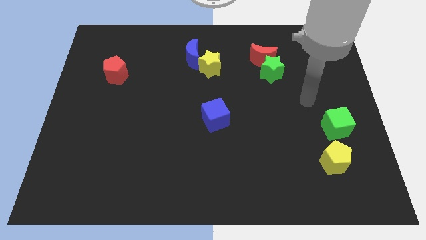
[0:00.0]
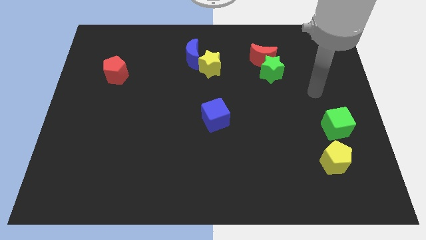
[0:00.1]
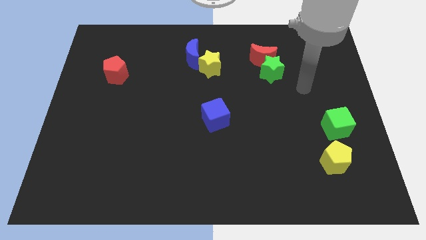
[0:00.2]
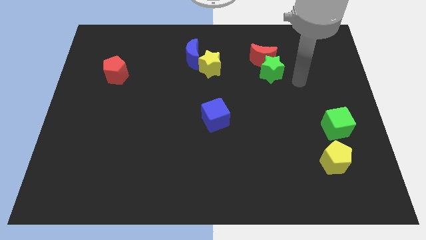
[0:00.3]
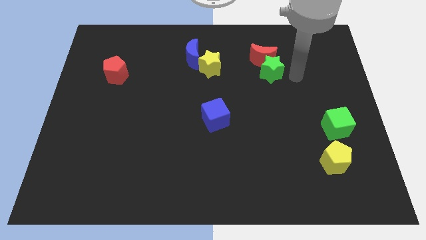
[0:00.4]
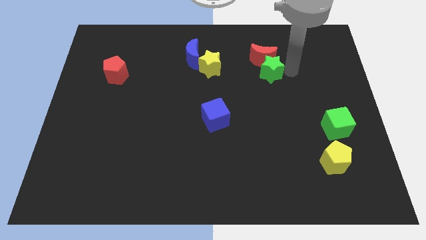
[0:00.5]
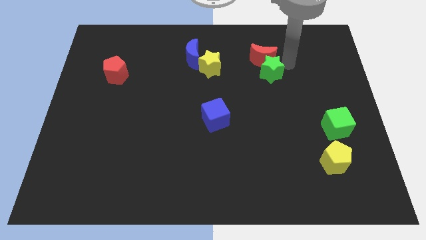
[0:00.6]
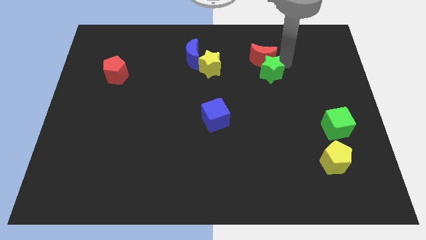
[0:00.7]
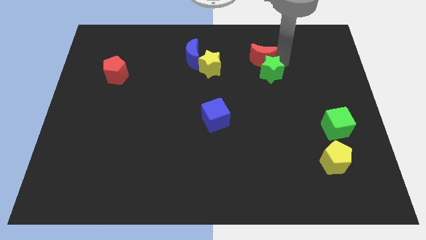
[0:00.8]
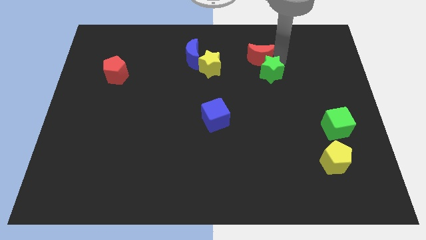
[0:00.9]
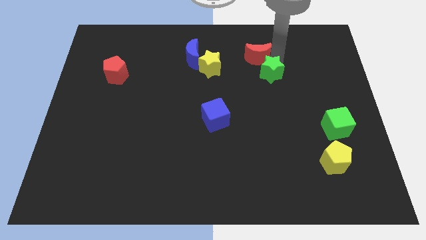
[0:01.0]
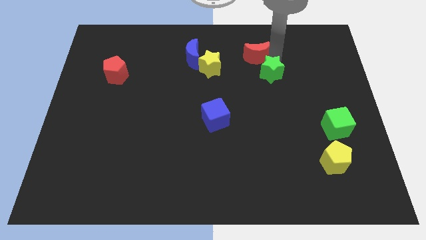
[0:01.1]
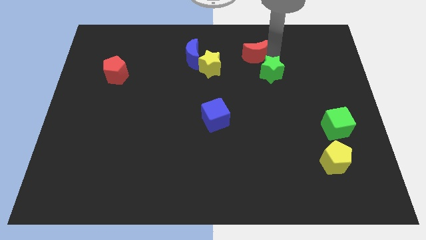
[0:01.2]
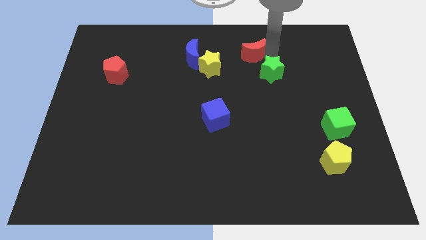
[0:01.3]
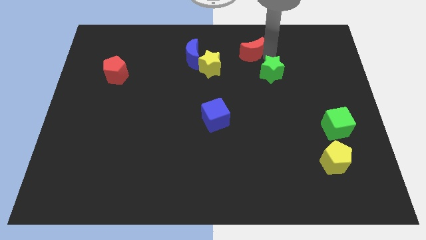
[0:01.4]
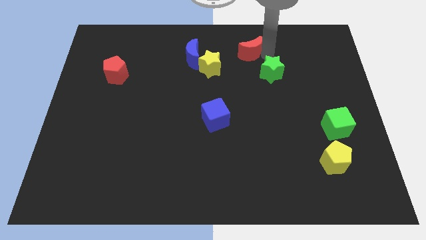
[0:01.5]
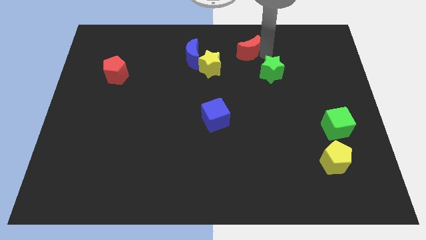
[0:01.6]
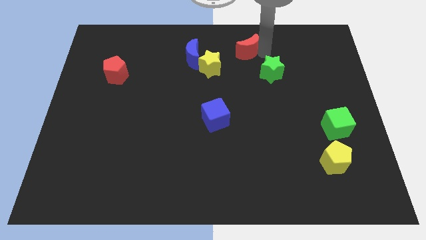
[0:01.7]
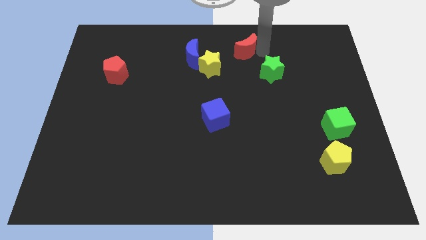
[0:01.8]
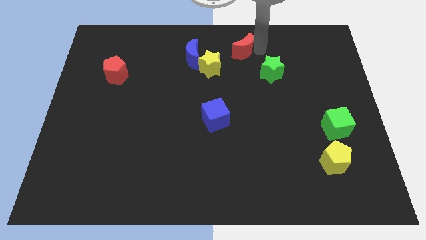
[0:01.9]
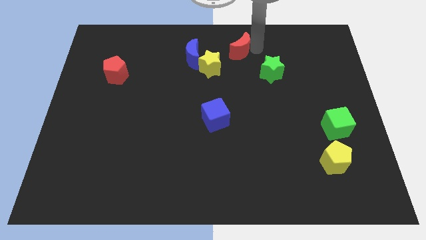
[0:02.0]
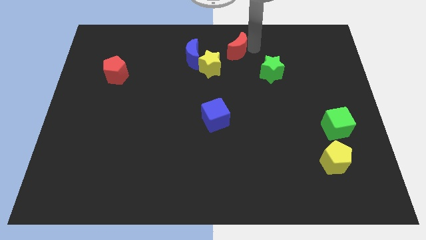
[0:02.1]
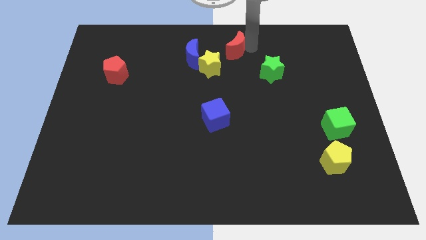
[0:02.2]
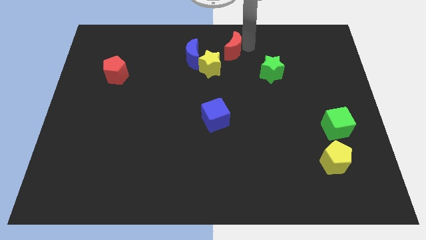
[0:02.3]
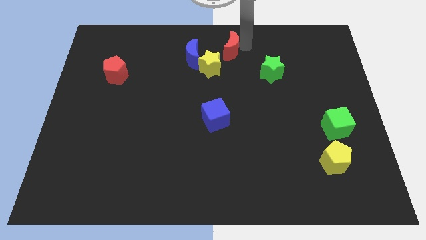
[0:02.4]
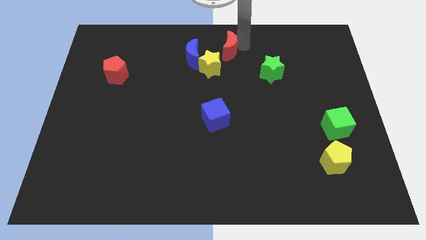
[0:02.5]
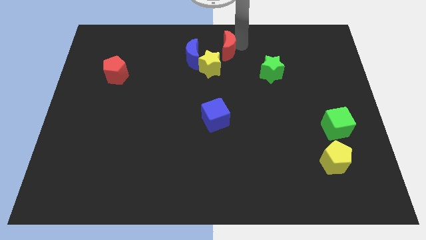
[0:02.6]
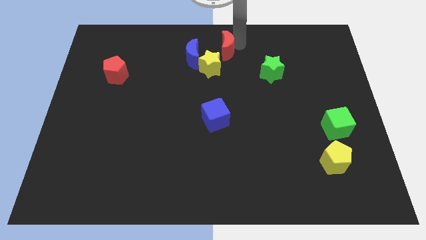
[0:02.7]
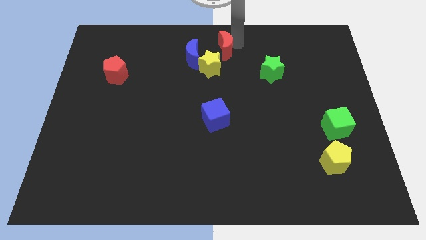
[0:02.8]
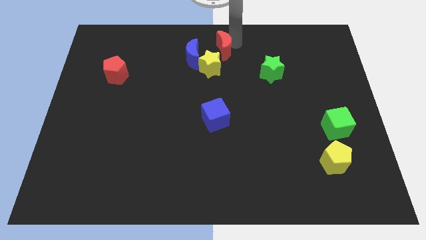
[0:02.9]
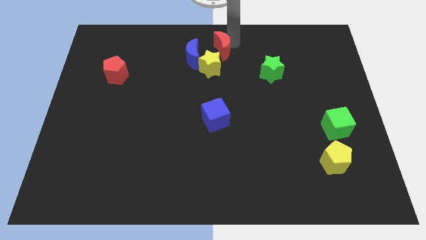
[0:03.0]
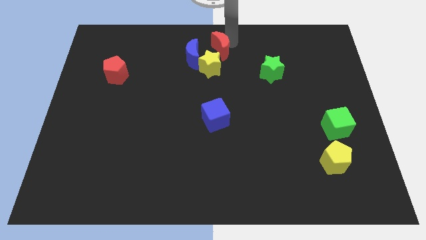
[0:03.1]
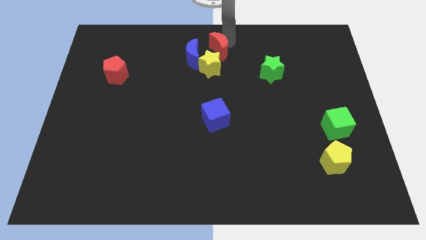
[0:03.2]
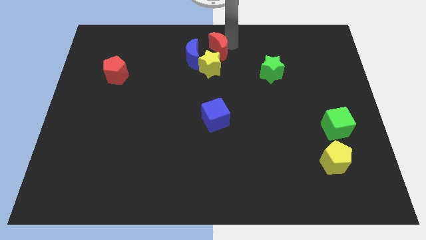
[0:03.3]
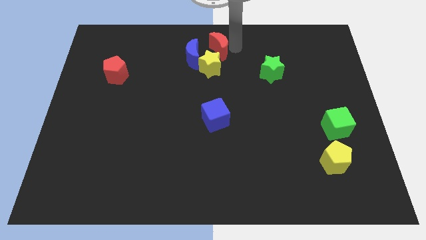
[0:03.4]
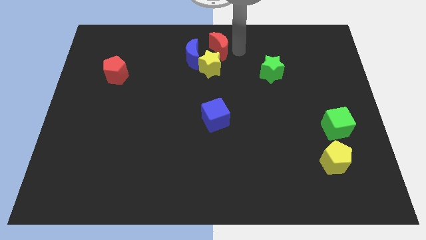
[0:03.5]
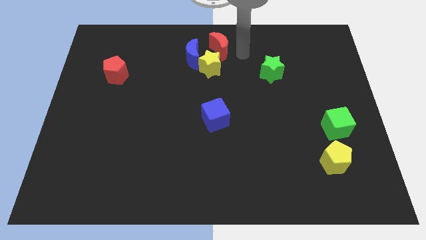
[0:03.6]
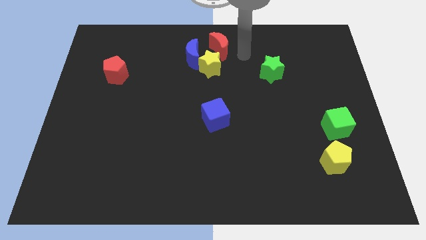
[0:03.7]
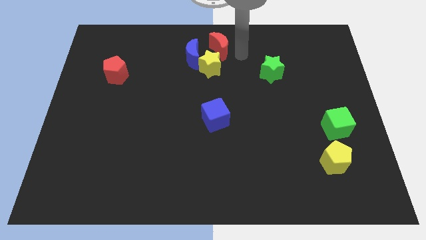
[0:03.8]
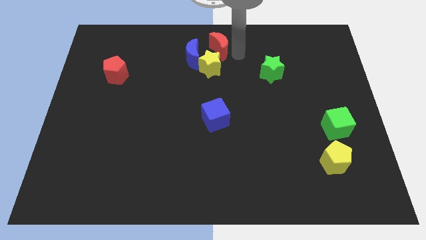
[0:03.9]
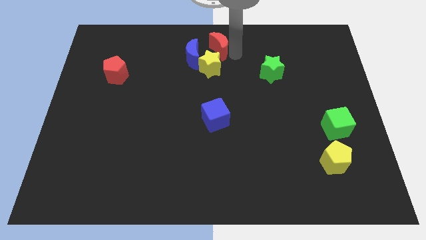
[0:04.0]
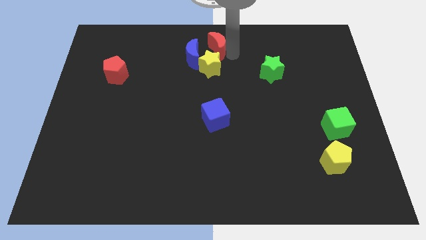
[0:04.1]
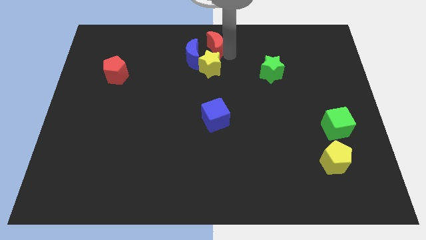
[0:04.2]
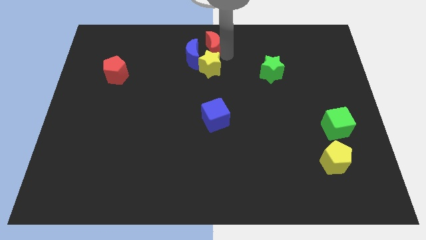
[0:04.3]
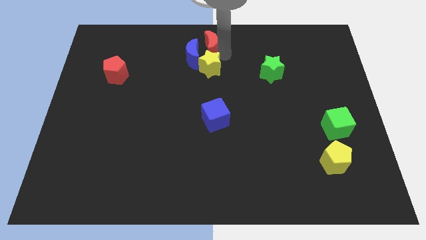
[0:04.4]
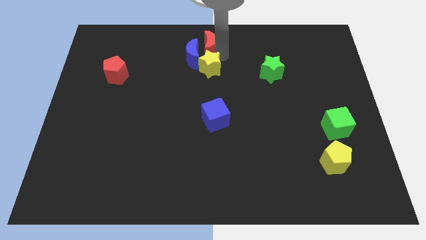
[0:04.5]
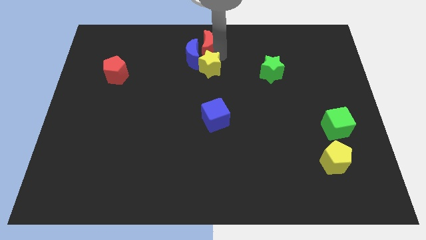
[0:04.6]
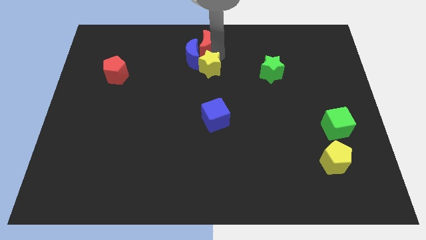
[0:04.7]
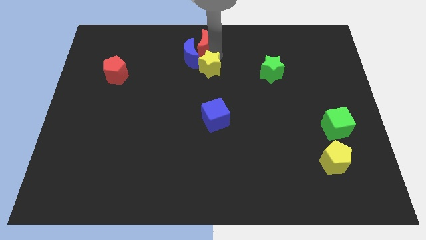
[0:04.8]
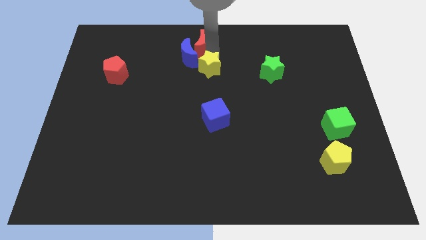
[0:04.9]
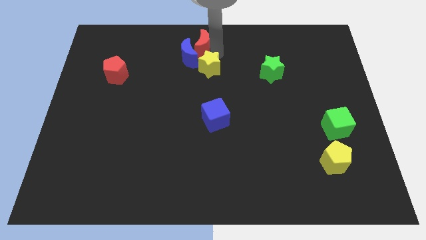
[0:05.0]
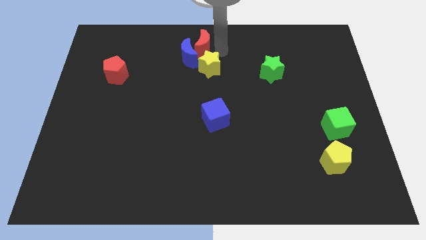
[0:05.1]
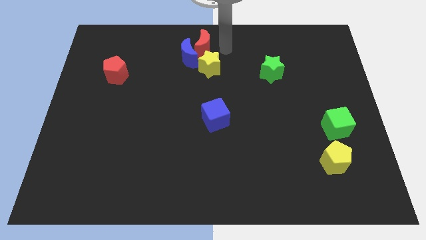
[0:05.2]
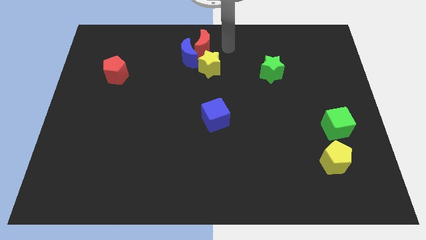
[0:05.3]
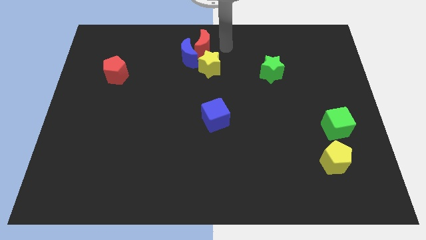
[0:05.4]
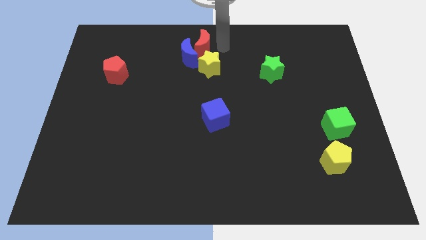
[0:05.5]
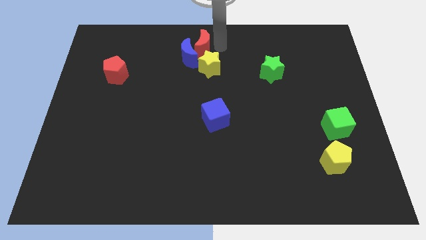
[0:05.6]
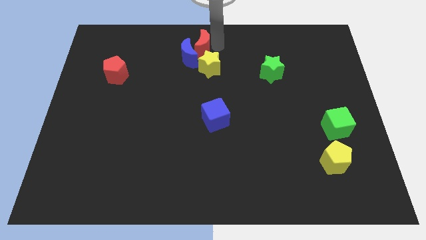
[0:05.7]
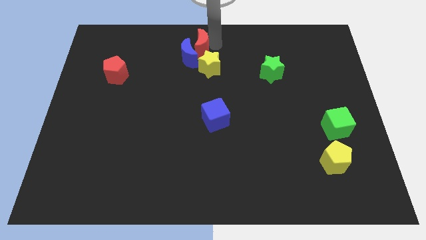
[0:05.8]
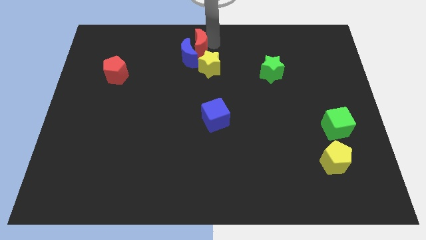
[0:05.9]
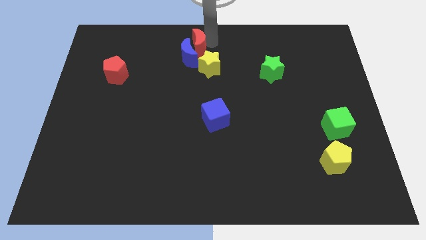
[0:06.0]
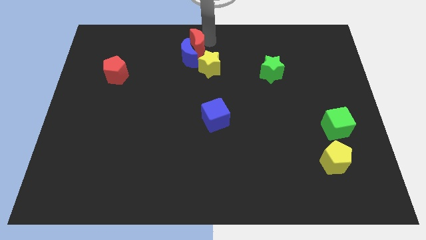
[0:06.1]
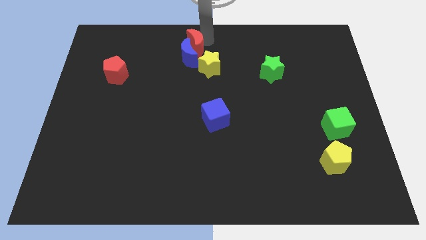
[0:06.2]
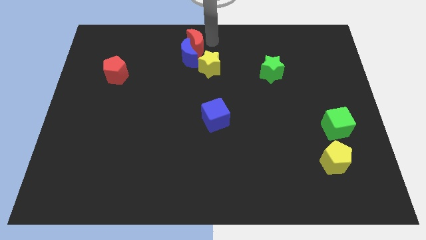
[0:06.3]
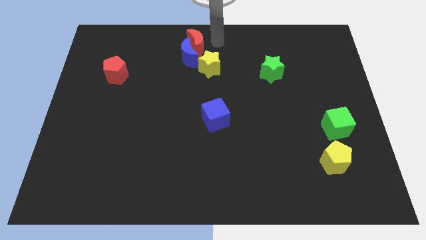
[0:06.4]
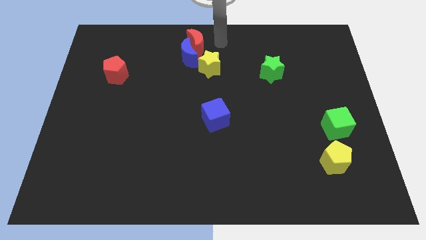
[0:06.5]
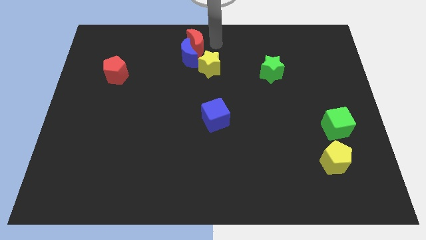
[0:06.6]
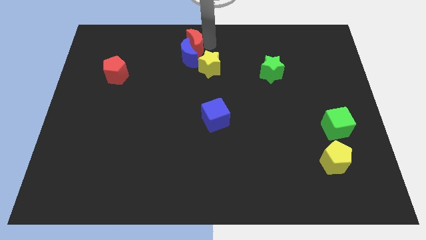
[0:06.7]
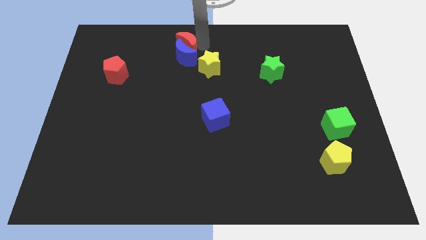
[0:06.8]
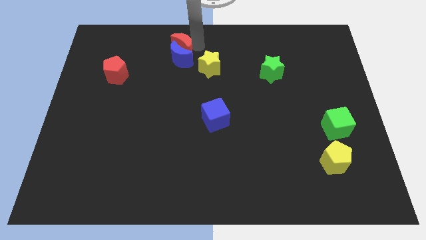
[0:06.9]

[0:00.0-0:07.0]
push the red moon to the left

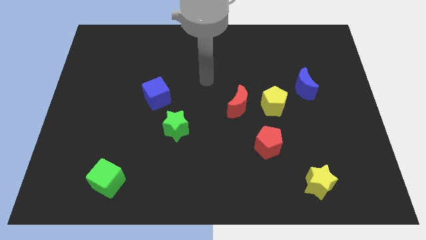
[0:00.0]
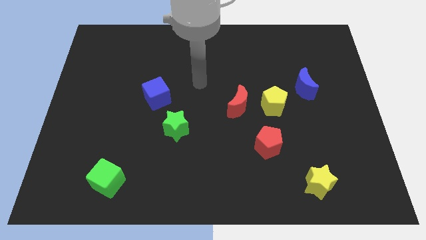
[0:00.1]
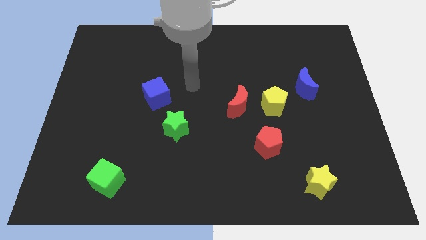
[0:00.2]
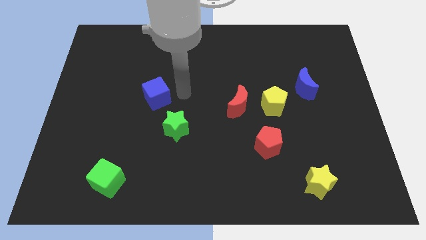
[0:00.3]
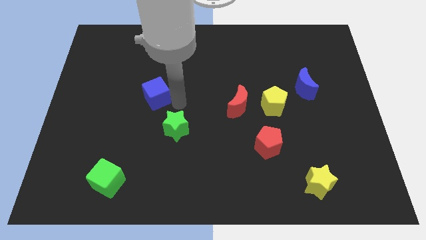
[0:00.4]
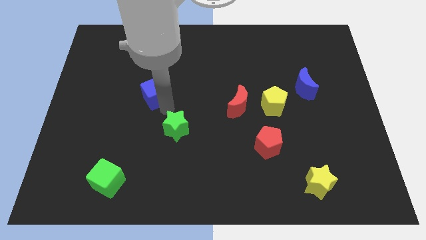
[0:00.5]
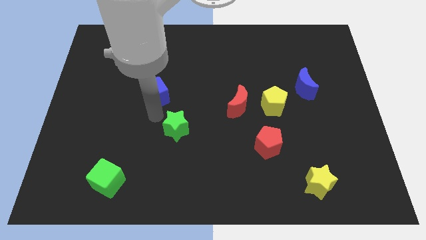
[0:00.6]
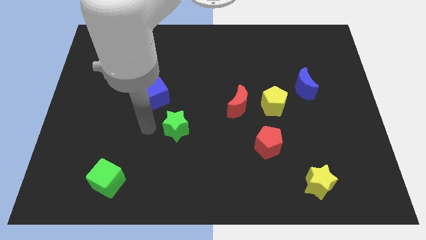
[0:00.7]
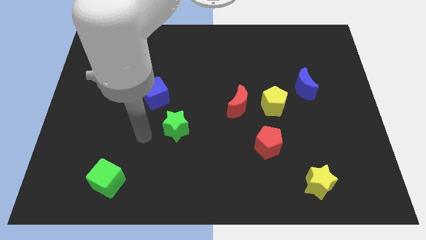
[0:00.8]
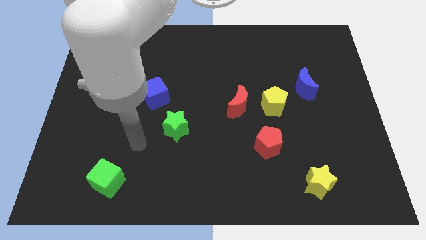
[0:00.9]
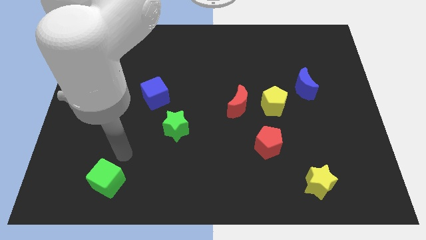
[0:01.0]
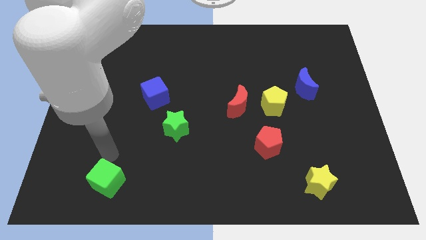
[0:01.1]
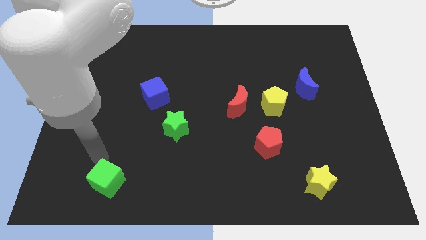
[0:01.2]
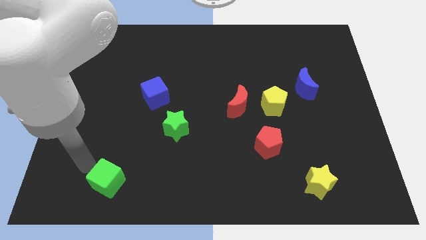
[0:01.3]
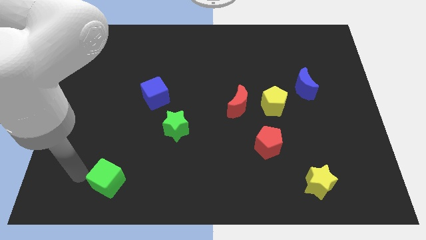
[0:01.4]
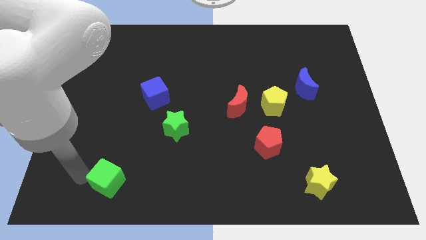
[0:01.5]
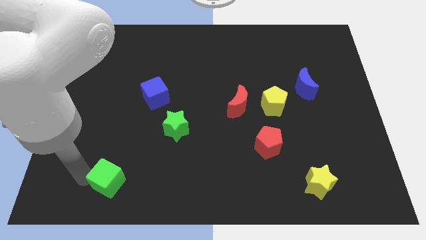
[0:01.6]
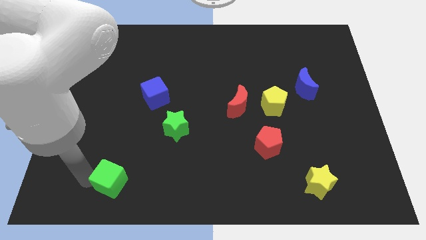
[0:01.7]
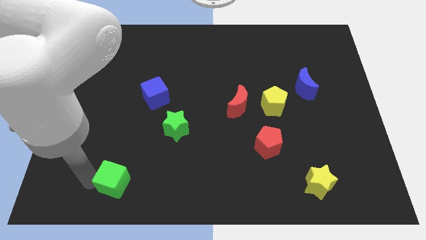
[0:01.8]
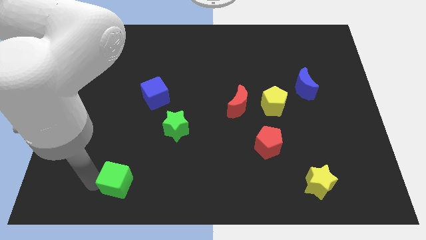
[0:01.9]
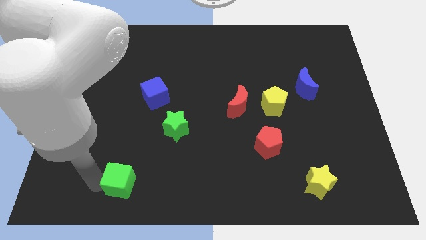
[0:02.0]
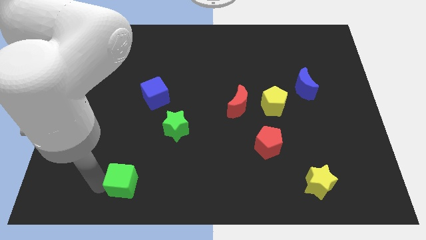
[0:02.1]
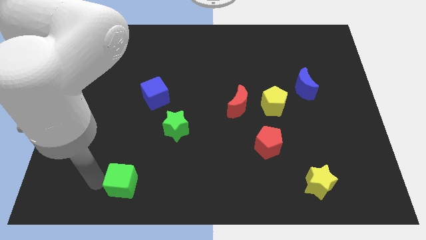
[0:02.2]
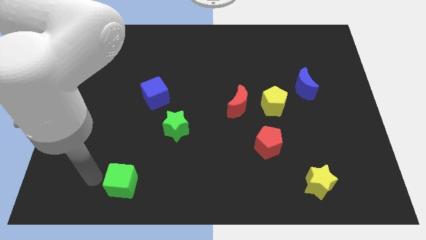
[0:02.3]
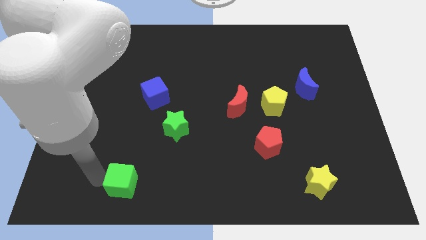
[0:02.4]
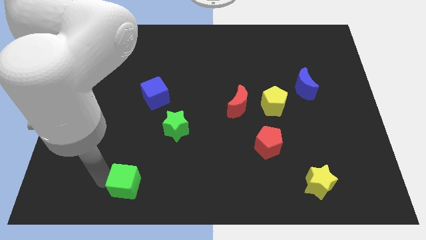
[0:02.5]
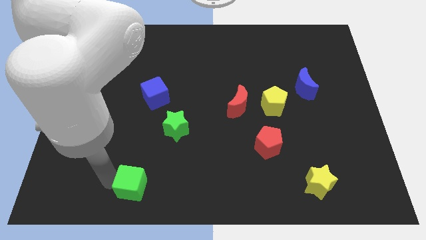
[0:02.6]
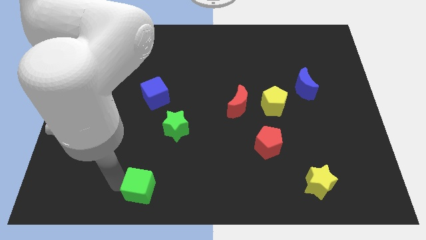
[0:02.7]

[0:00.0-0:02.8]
move the green cube slightly right
